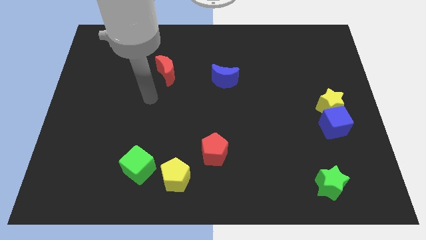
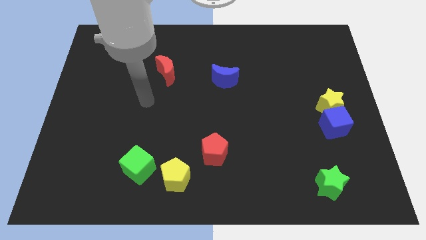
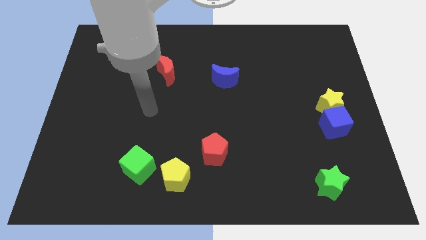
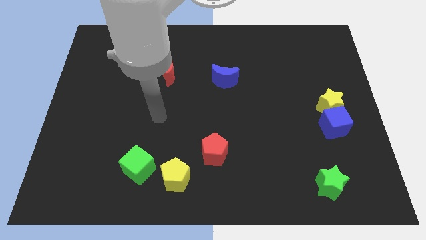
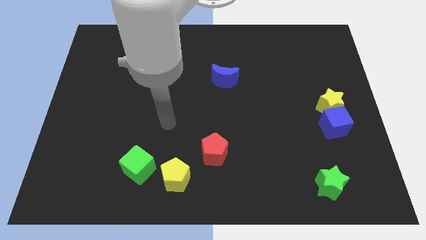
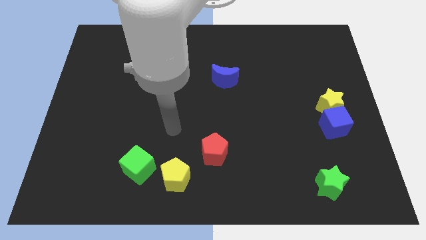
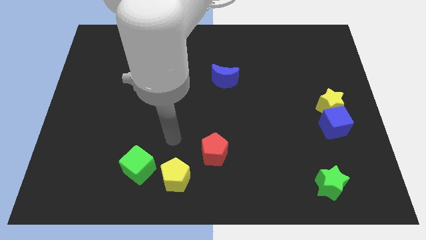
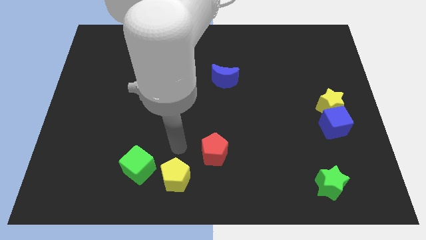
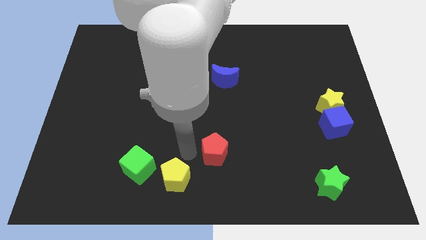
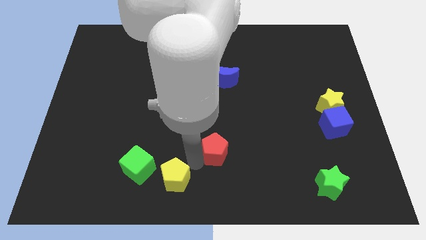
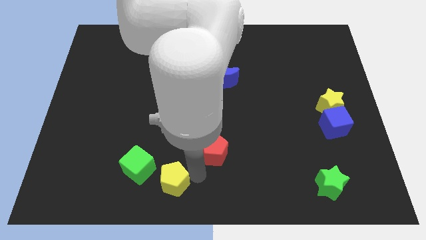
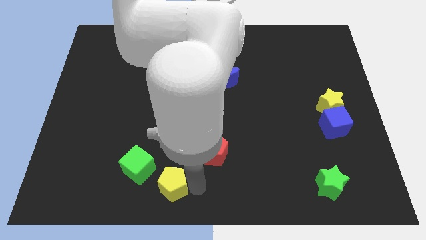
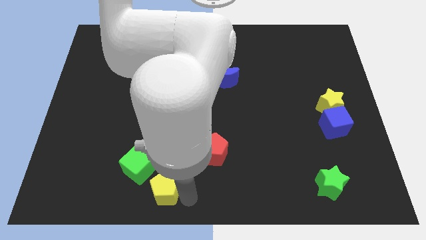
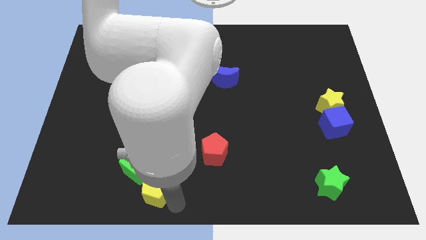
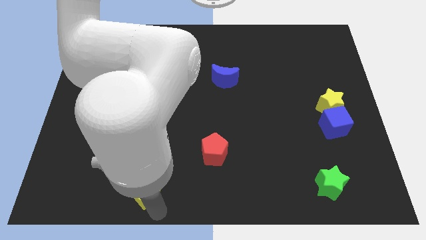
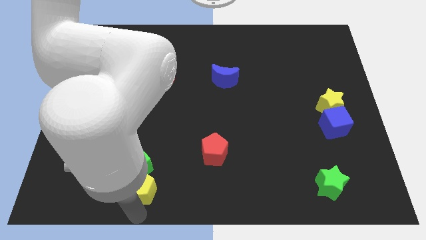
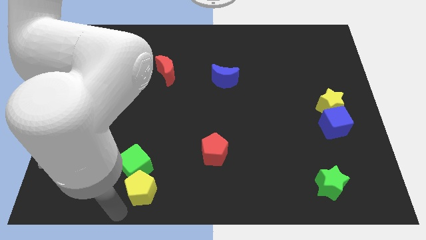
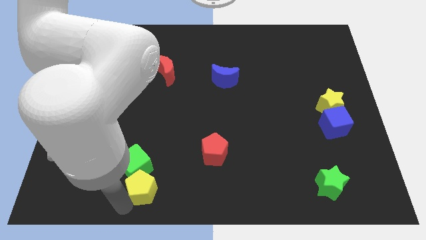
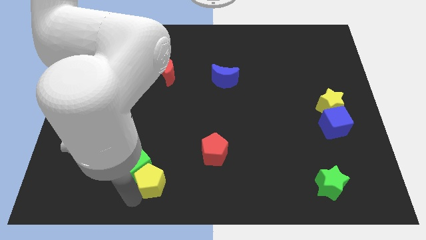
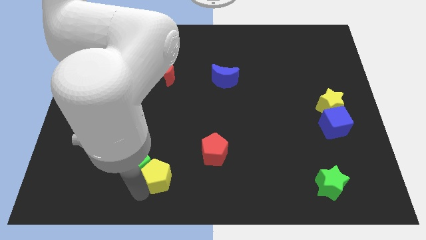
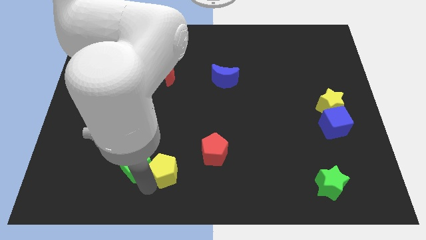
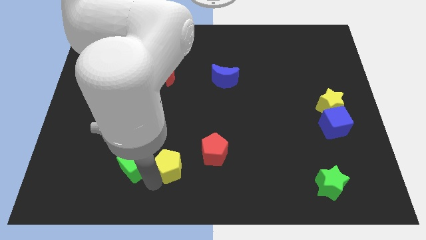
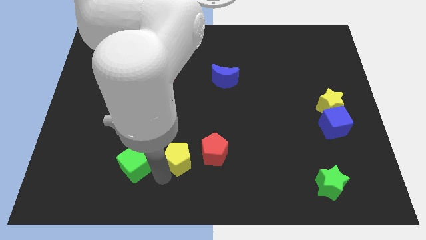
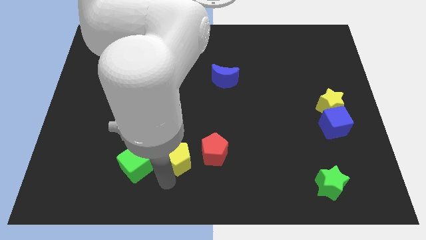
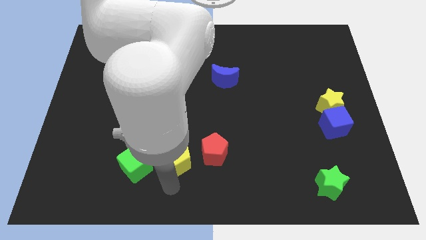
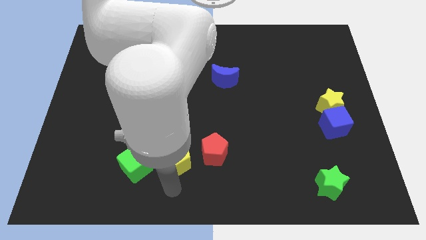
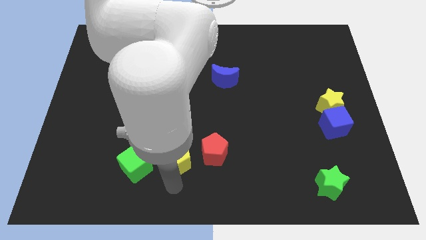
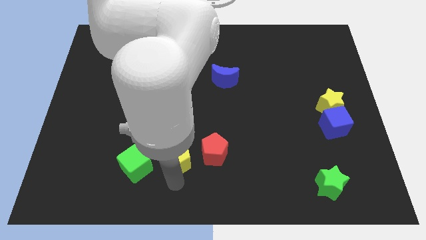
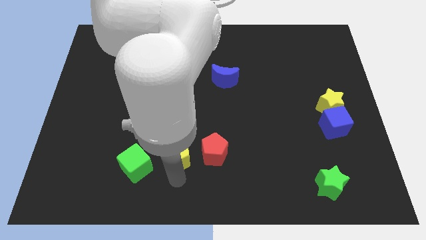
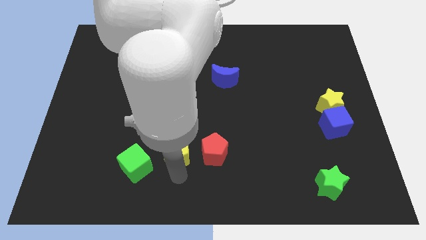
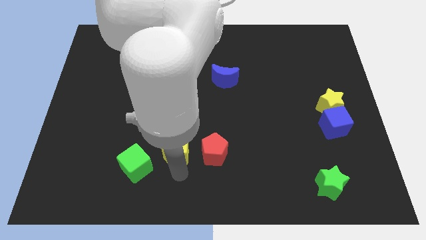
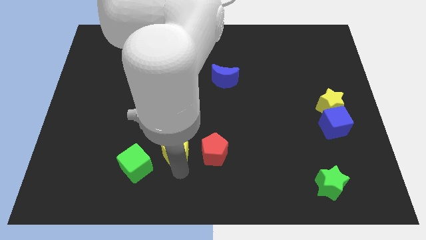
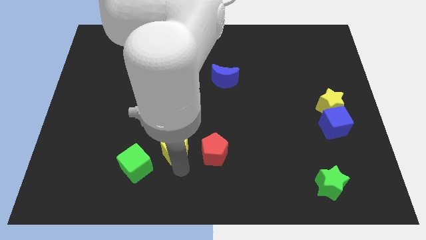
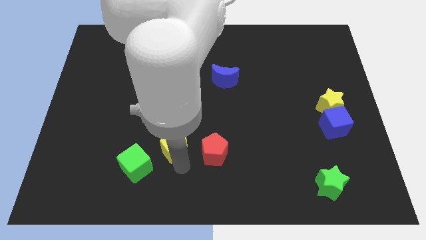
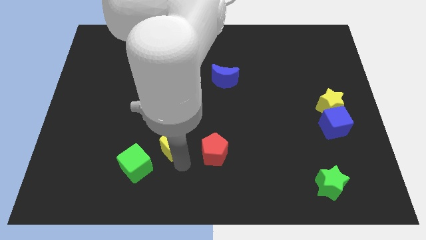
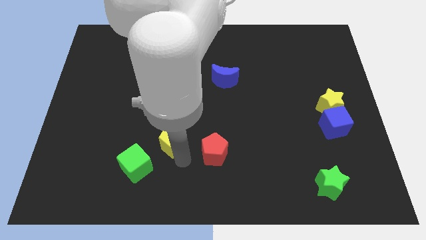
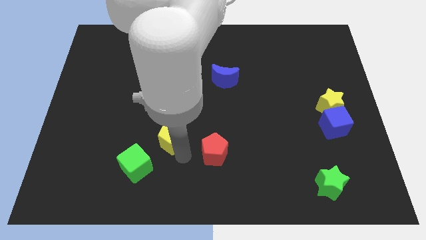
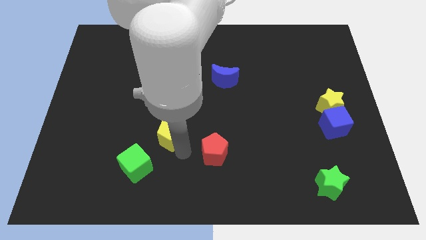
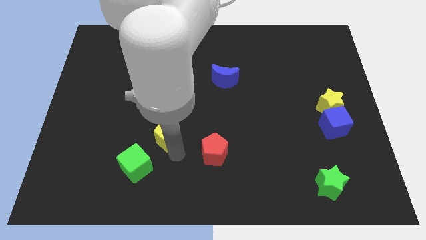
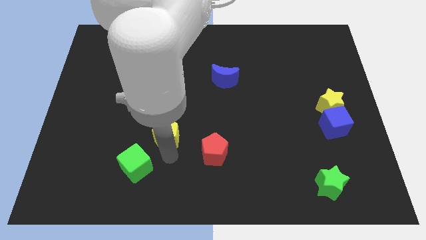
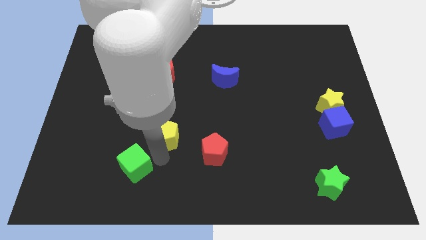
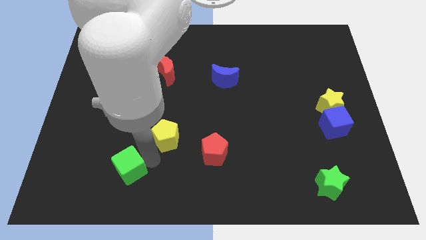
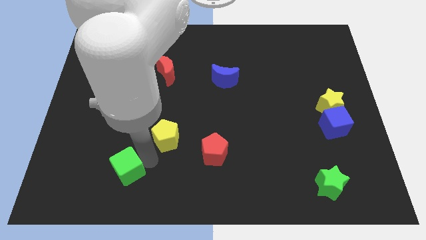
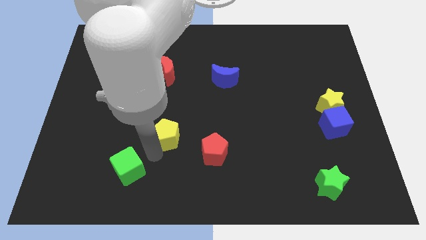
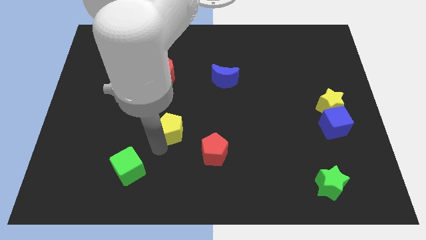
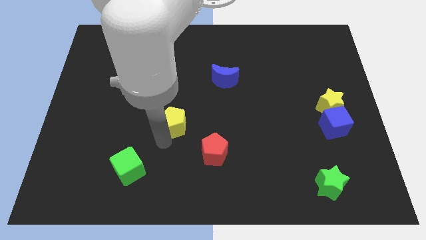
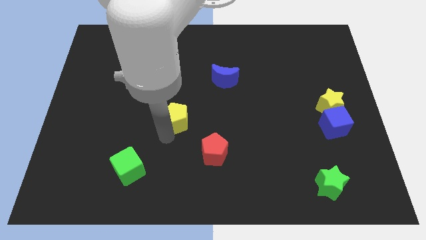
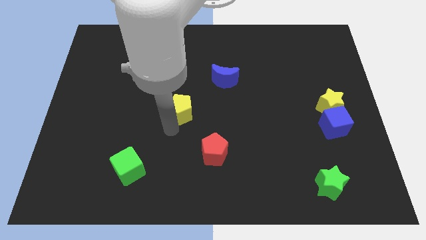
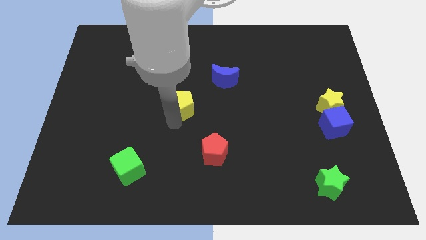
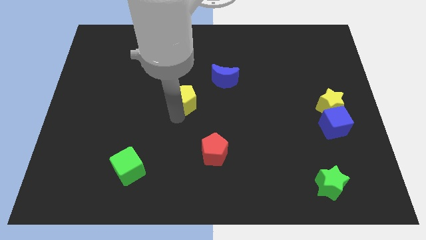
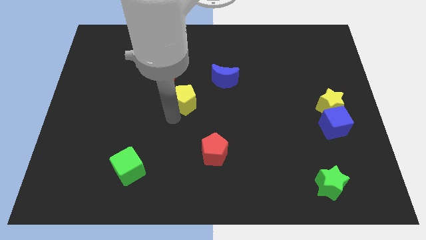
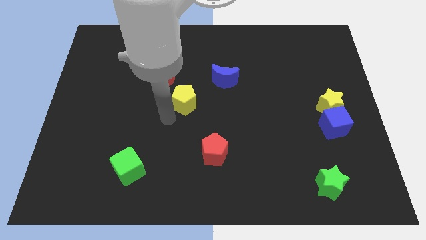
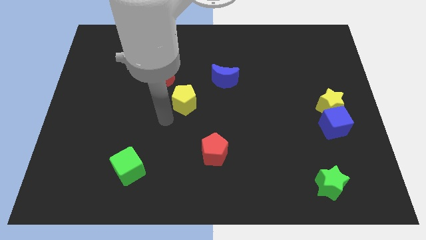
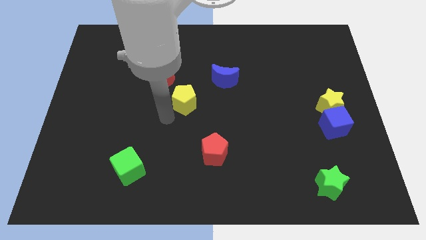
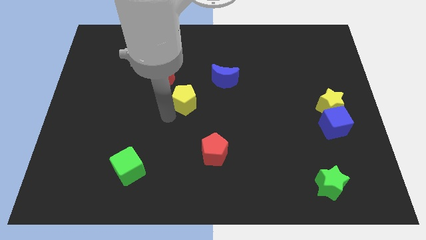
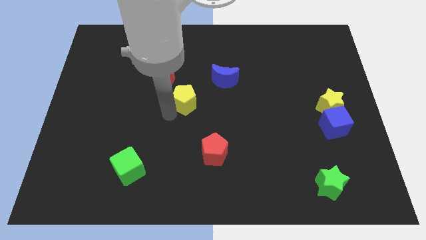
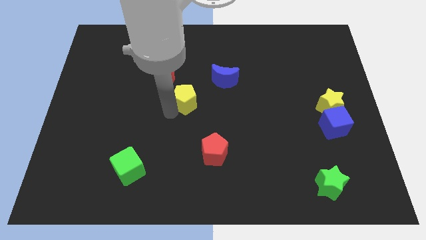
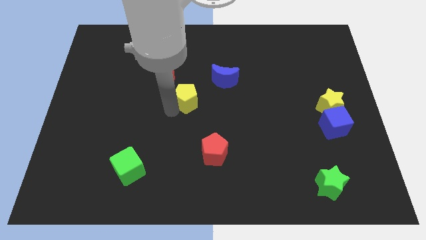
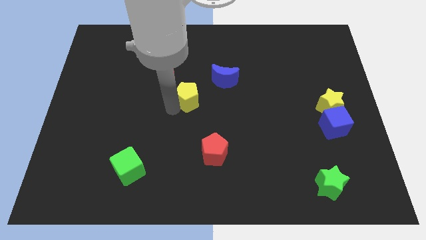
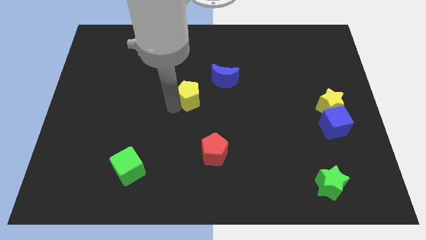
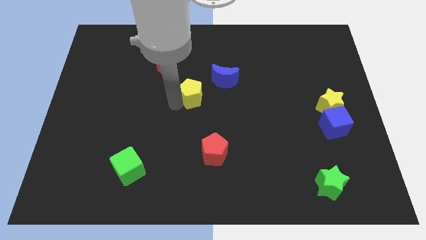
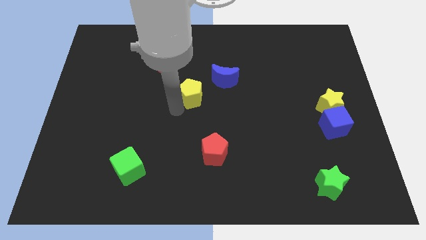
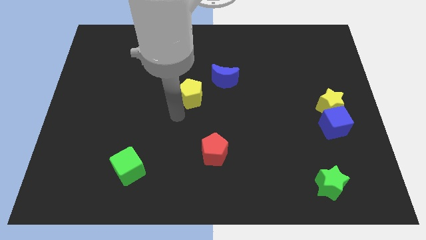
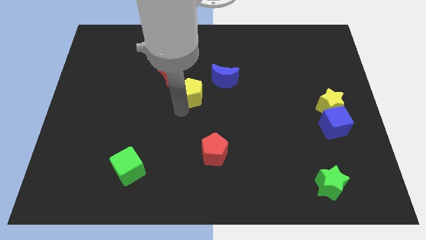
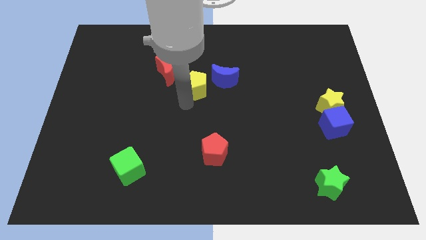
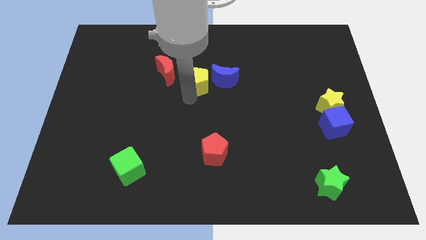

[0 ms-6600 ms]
put the yellow pentagon to the right side of the red moon

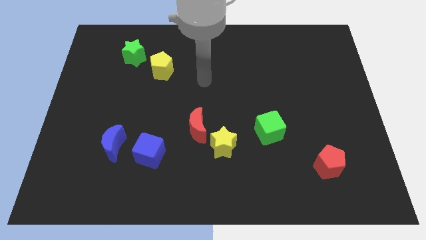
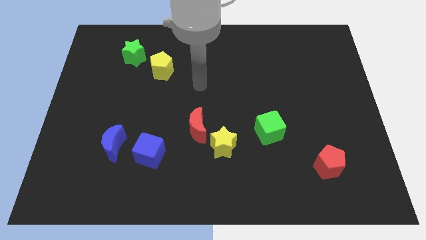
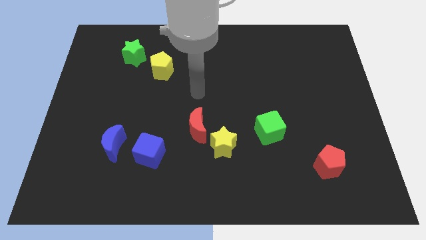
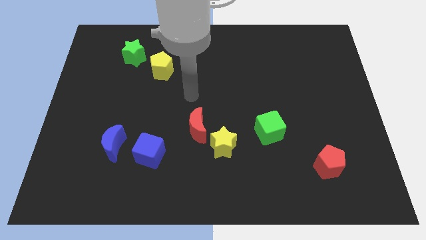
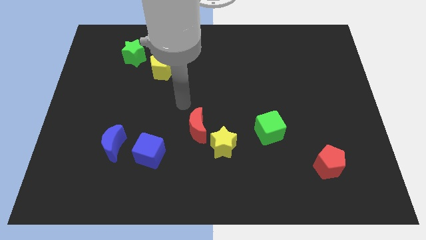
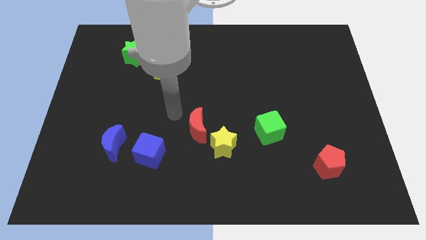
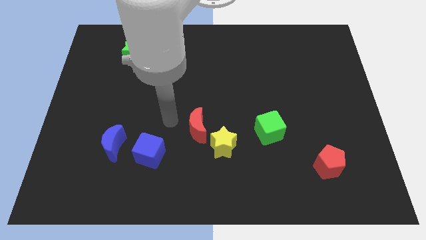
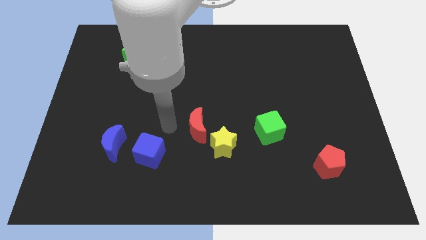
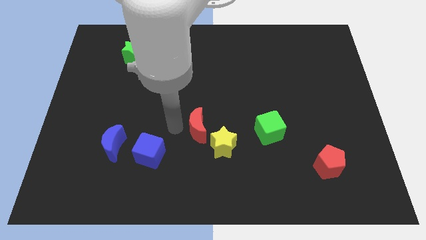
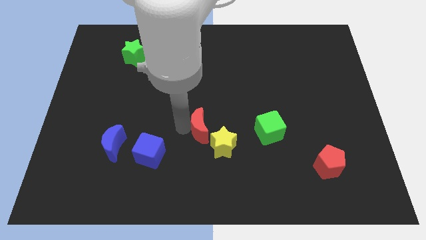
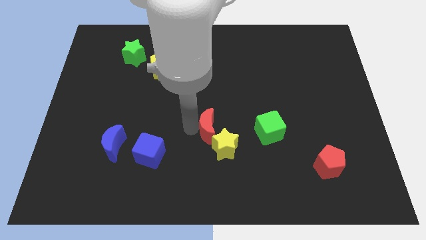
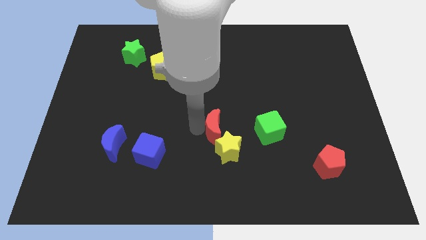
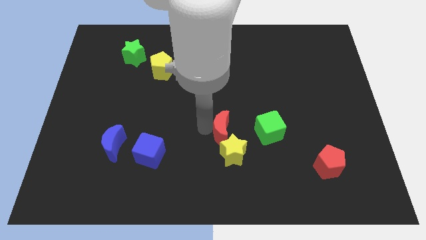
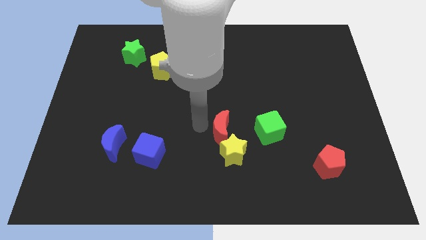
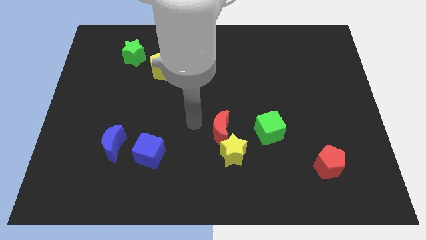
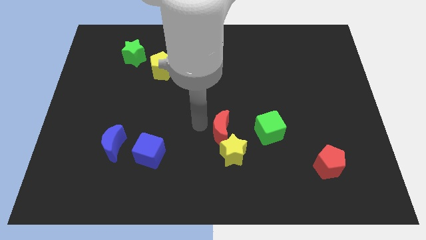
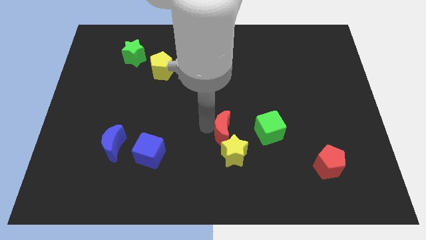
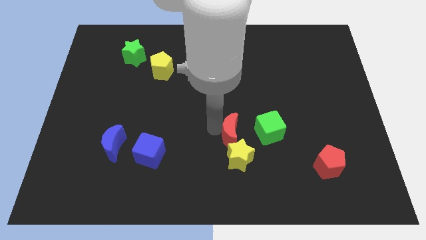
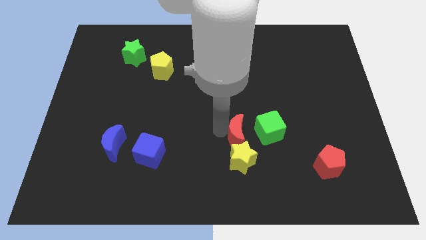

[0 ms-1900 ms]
put the red moon to the bottom left side of the green cube

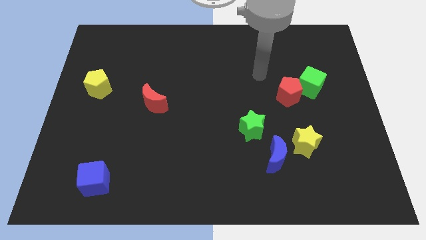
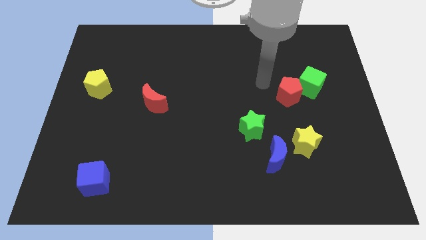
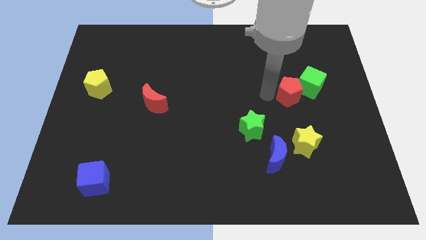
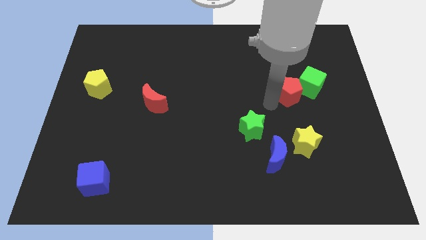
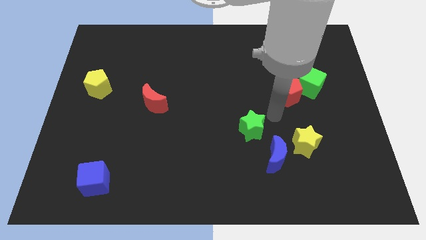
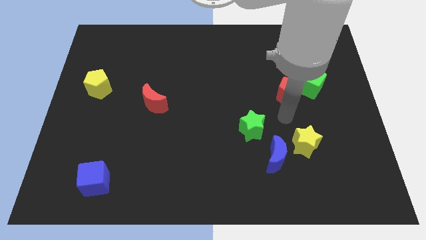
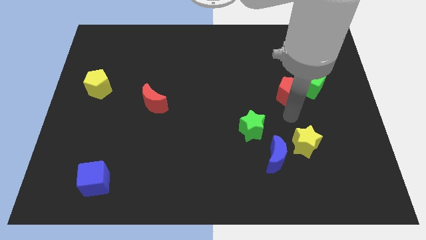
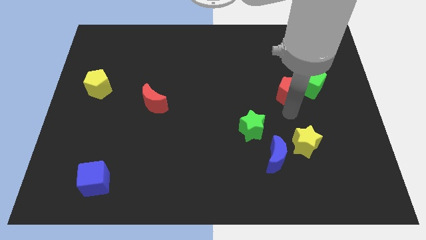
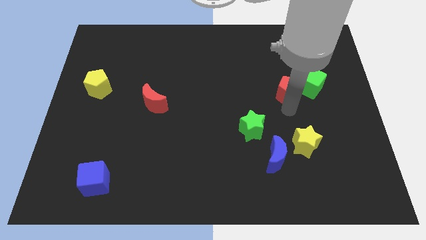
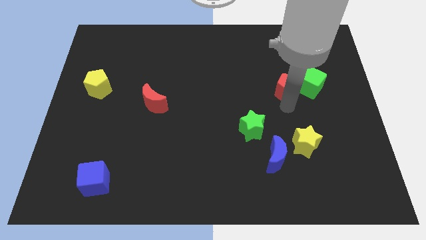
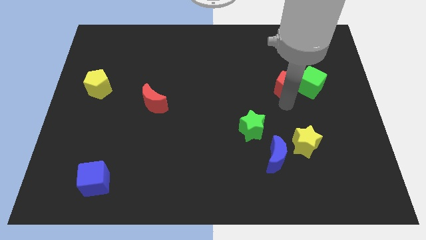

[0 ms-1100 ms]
push the red pentagon diagonally up and to the left of the green cube
